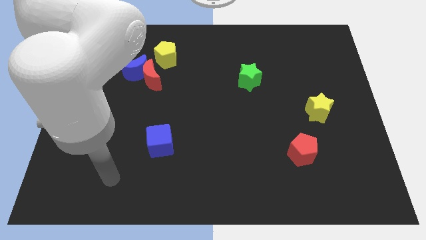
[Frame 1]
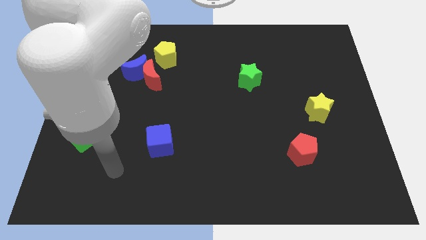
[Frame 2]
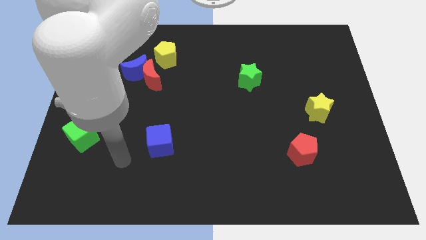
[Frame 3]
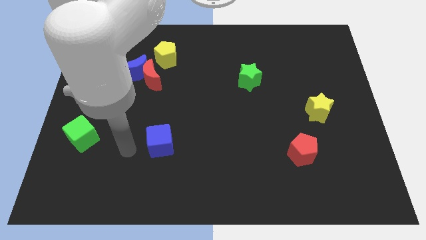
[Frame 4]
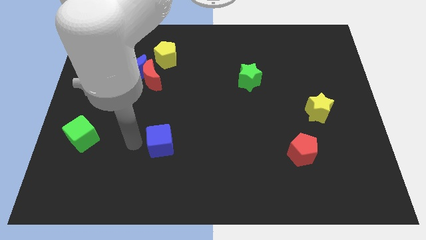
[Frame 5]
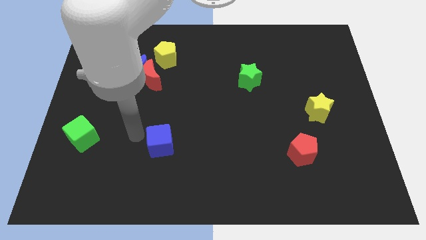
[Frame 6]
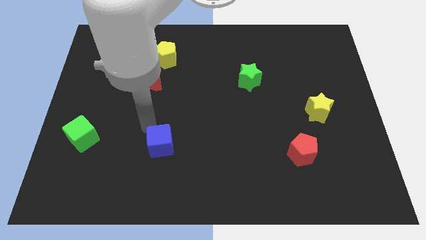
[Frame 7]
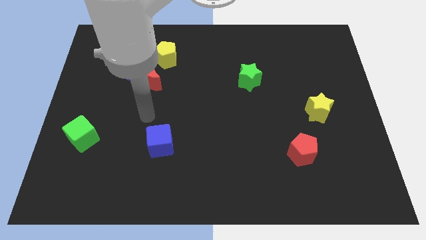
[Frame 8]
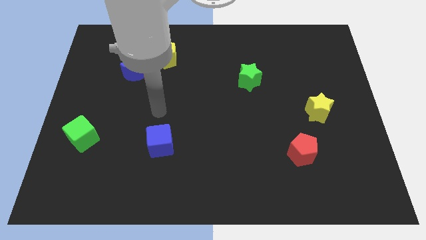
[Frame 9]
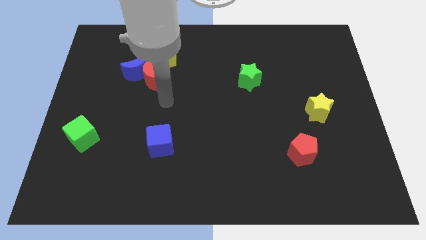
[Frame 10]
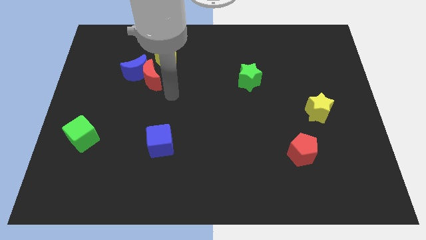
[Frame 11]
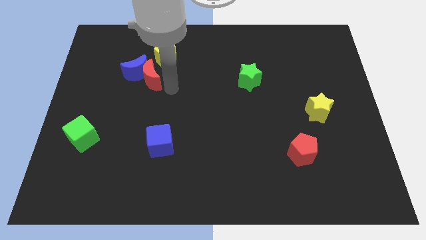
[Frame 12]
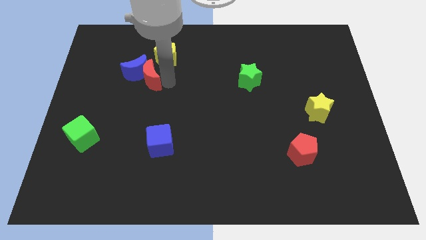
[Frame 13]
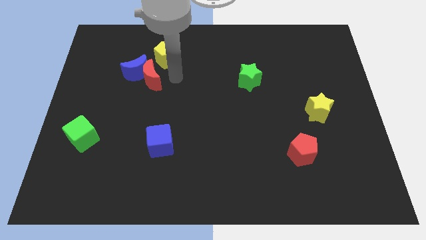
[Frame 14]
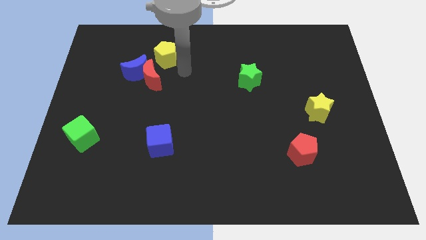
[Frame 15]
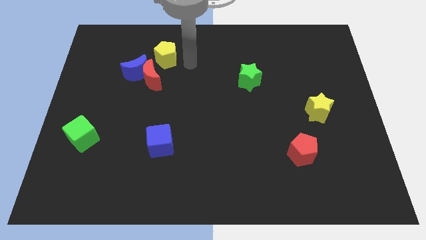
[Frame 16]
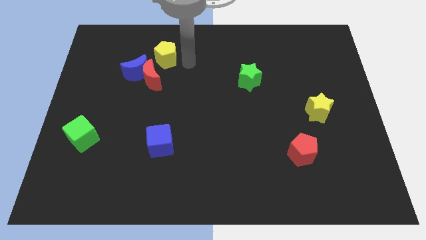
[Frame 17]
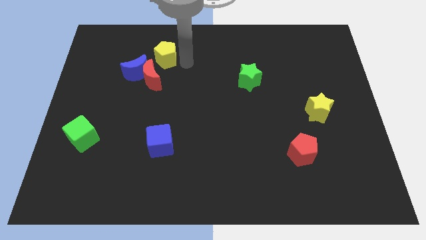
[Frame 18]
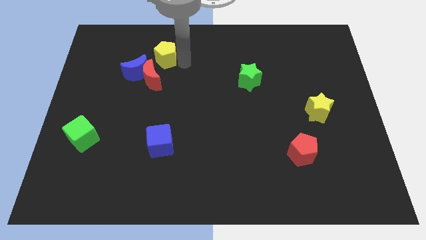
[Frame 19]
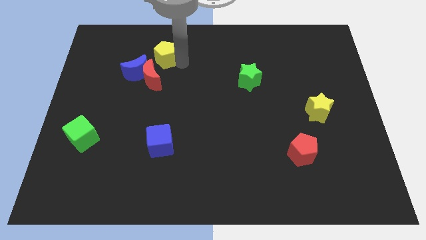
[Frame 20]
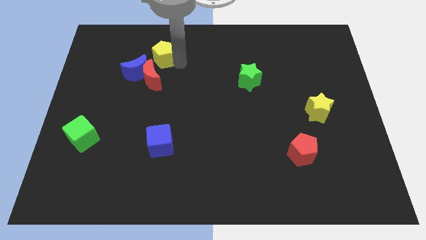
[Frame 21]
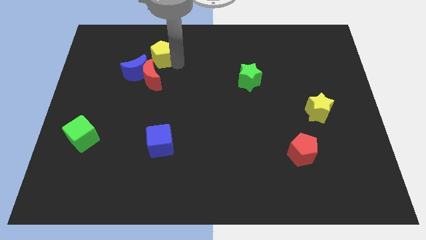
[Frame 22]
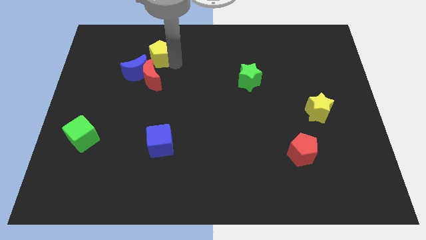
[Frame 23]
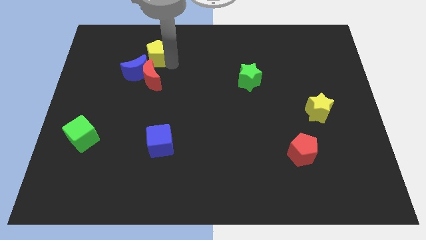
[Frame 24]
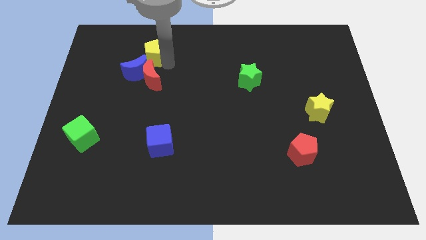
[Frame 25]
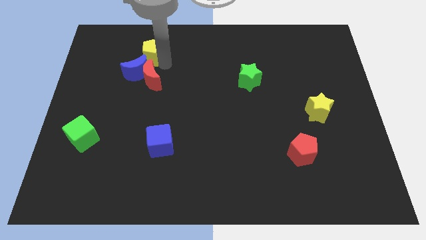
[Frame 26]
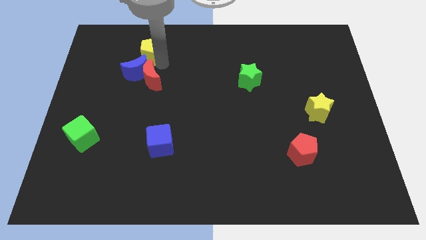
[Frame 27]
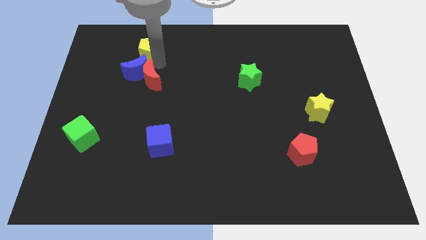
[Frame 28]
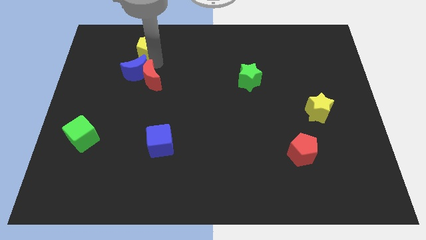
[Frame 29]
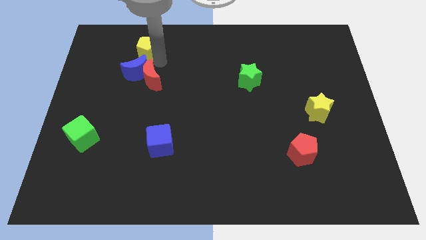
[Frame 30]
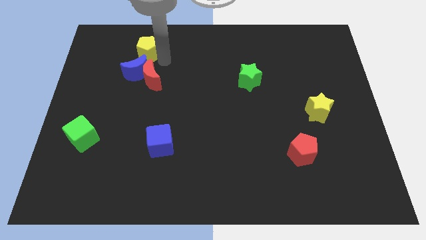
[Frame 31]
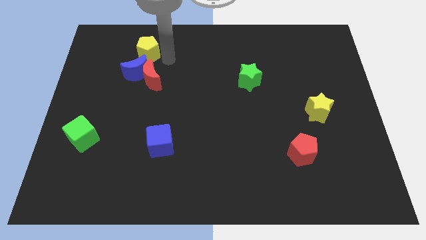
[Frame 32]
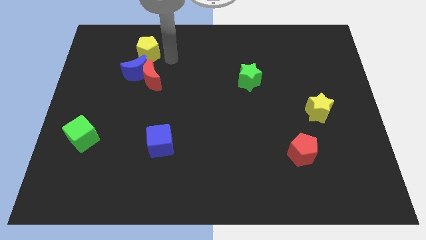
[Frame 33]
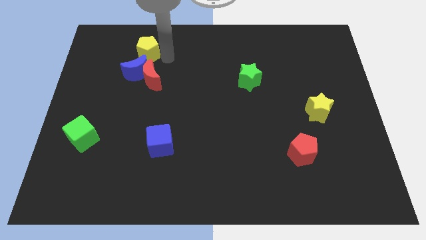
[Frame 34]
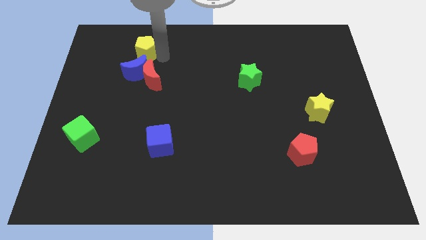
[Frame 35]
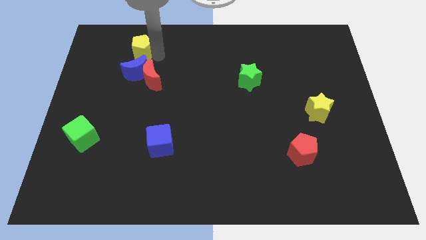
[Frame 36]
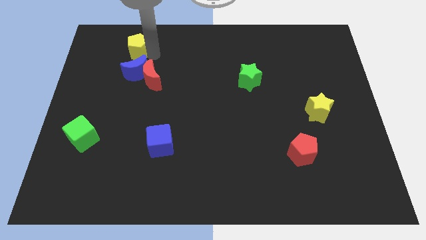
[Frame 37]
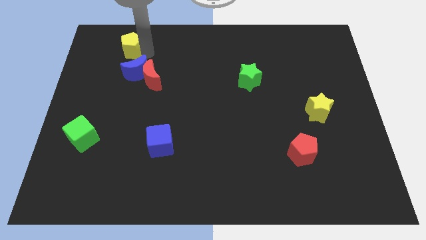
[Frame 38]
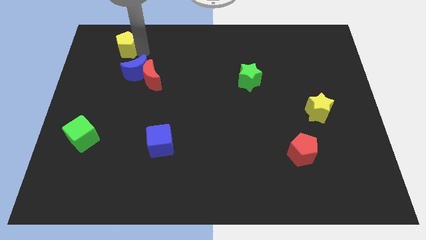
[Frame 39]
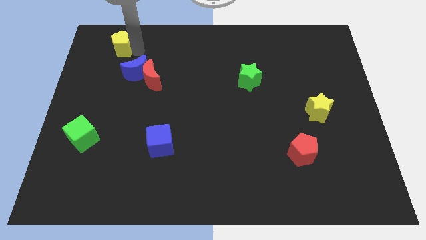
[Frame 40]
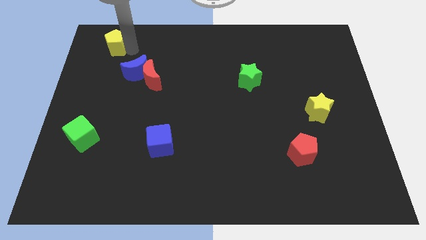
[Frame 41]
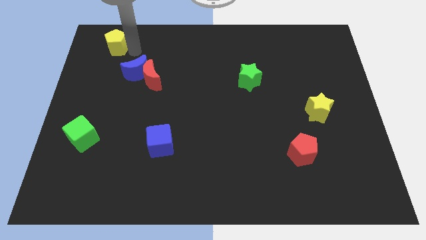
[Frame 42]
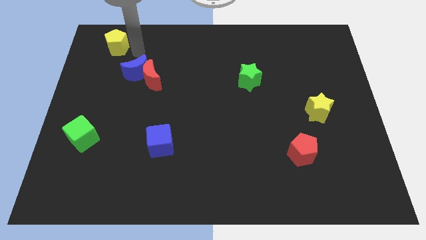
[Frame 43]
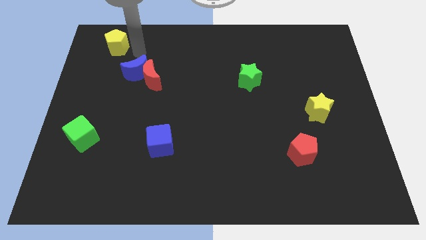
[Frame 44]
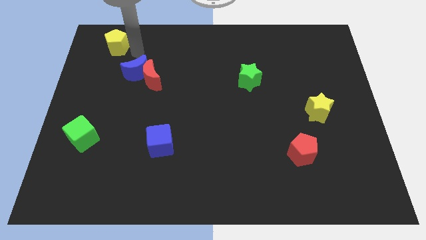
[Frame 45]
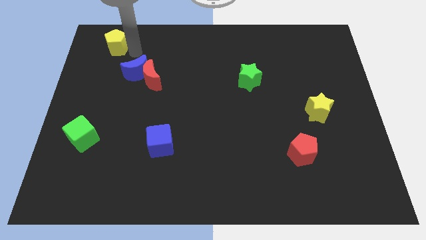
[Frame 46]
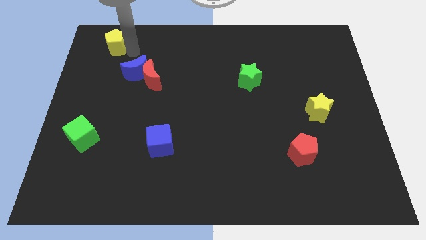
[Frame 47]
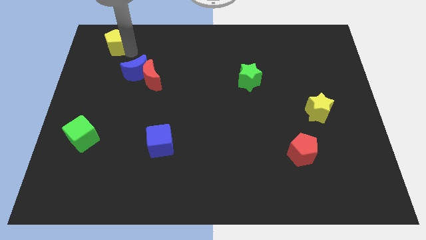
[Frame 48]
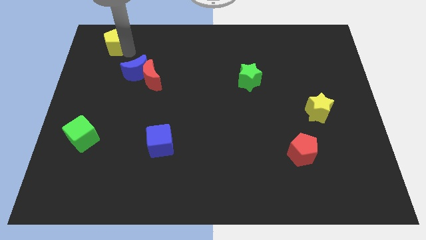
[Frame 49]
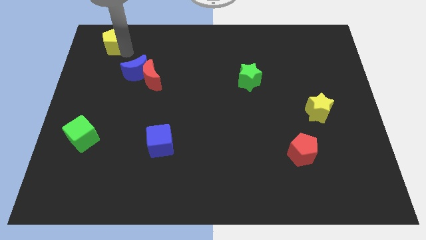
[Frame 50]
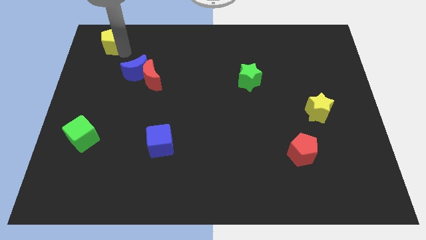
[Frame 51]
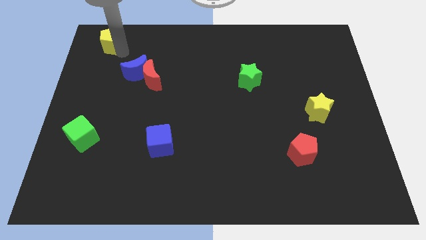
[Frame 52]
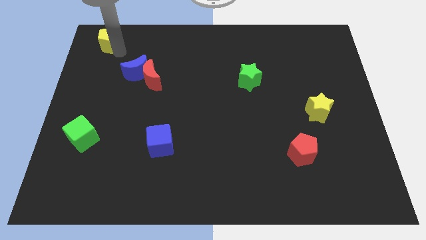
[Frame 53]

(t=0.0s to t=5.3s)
push the yellow pentagon to the top left of the board

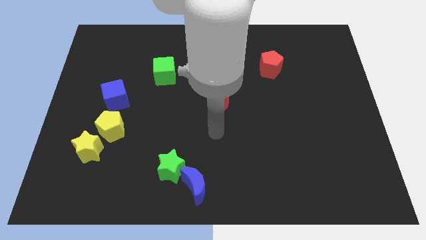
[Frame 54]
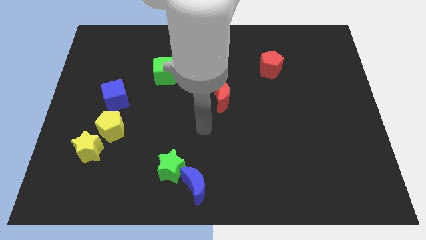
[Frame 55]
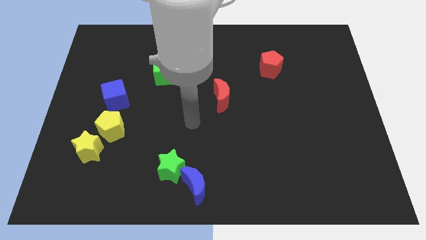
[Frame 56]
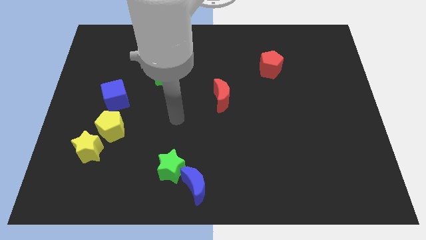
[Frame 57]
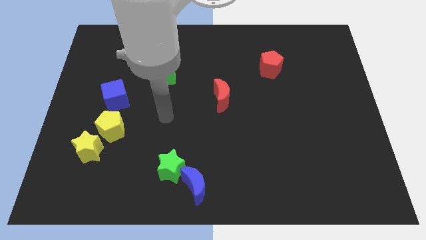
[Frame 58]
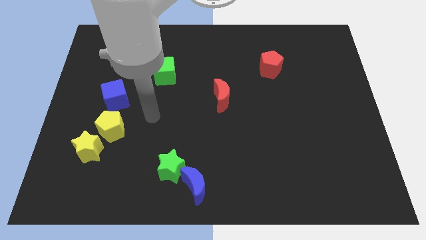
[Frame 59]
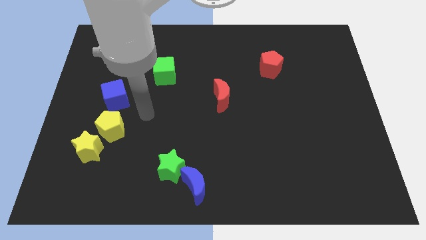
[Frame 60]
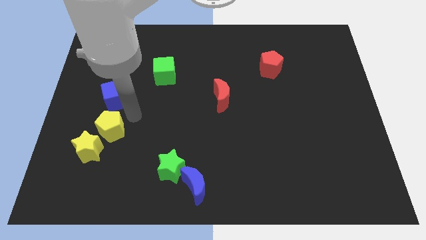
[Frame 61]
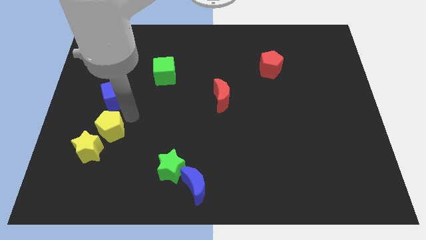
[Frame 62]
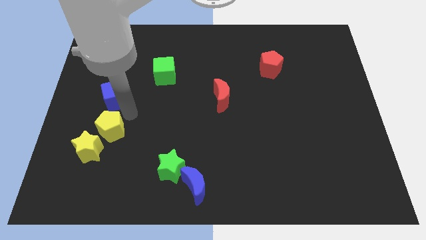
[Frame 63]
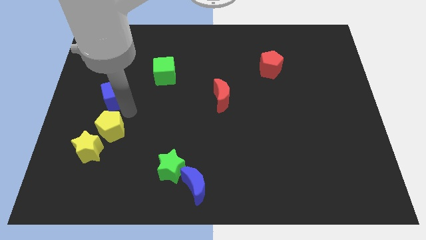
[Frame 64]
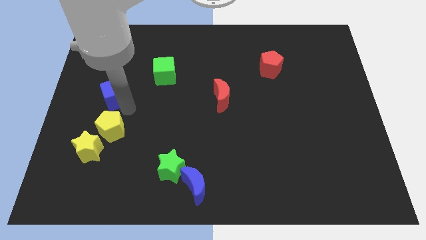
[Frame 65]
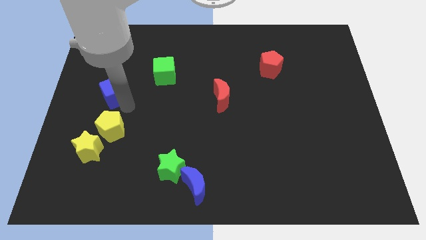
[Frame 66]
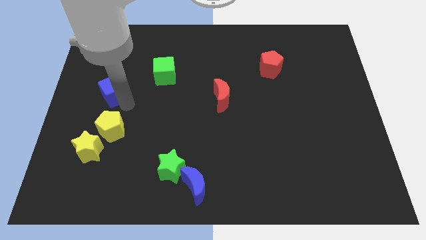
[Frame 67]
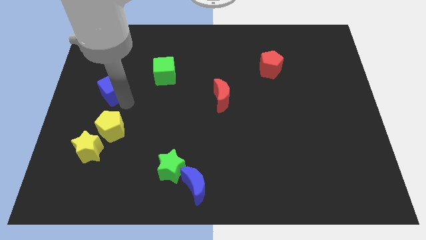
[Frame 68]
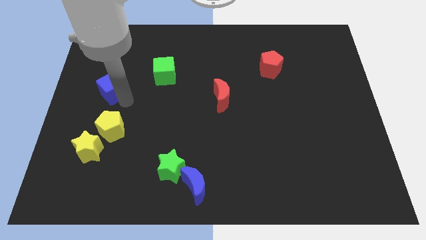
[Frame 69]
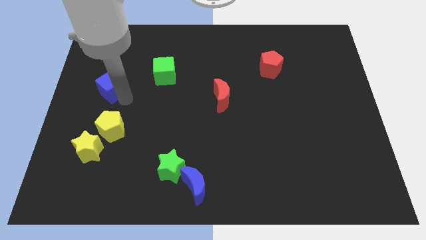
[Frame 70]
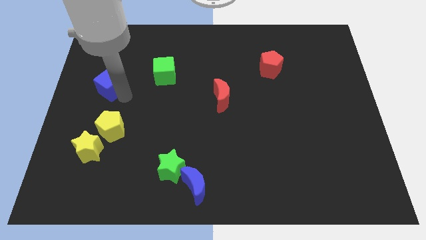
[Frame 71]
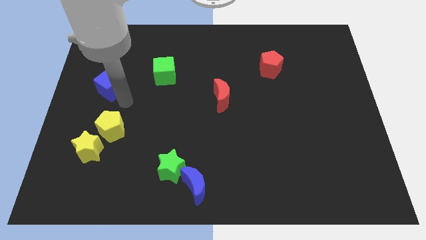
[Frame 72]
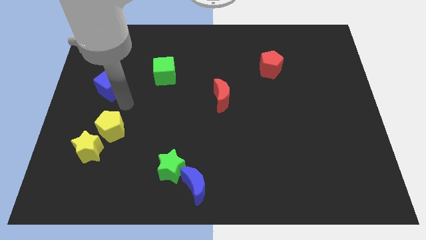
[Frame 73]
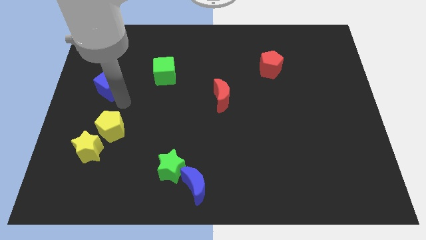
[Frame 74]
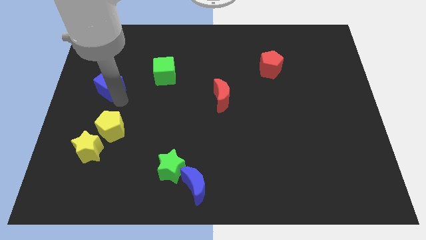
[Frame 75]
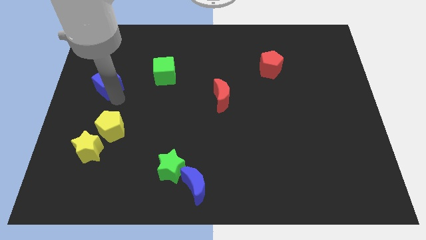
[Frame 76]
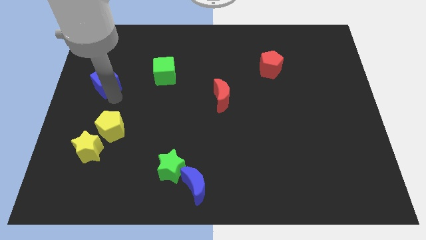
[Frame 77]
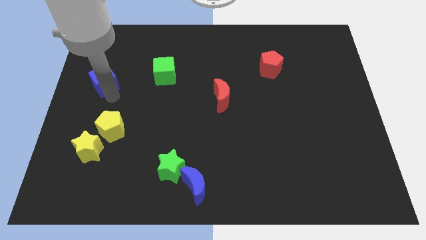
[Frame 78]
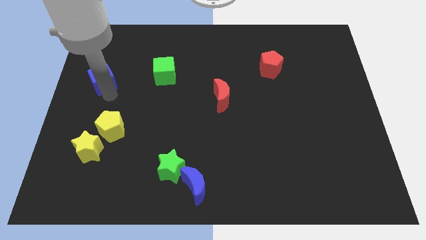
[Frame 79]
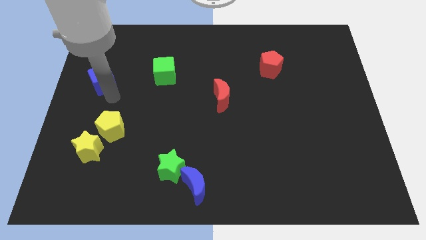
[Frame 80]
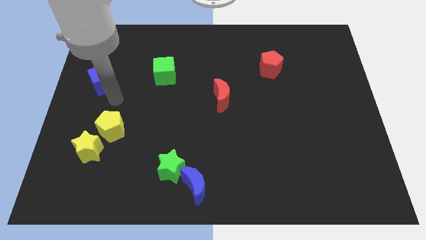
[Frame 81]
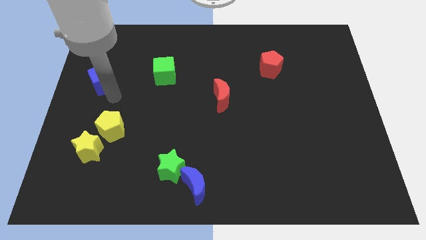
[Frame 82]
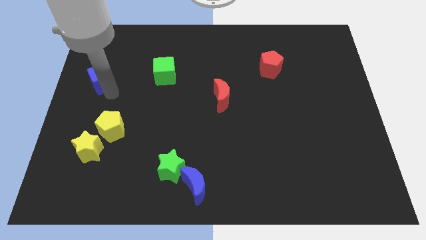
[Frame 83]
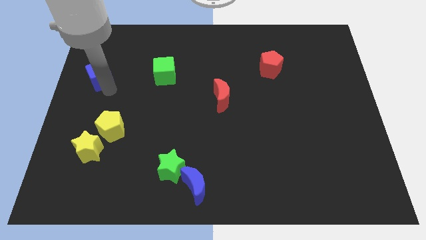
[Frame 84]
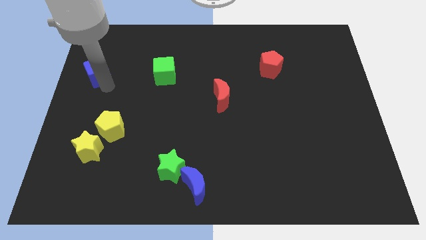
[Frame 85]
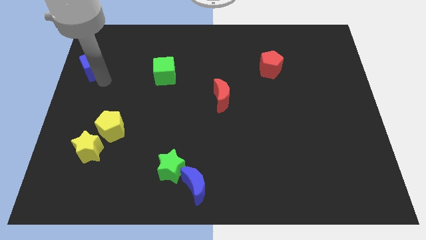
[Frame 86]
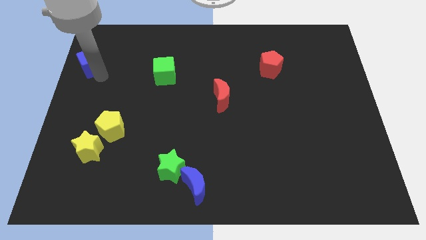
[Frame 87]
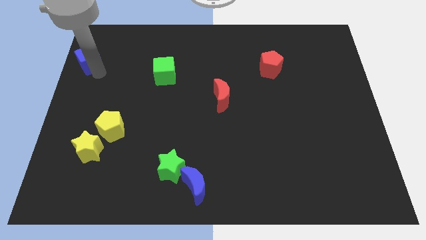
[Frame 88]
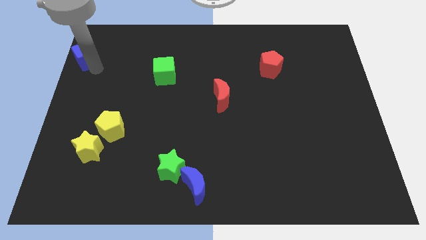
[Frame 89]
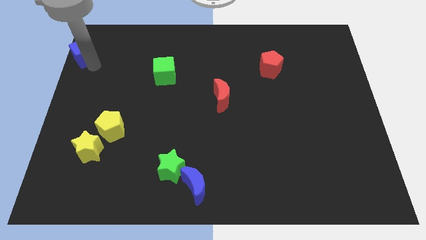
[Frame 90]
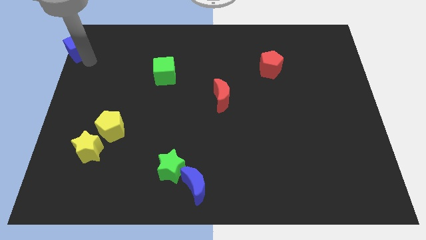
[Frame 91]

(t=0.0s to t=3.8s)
slide the blue cube to the upper left corner
